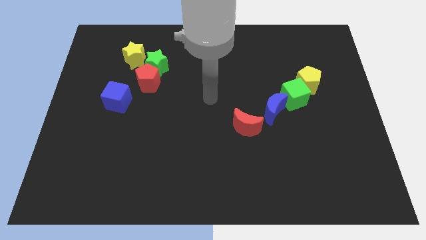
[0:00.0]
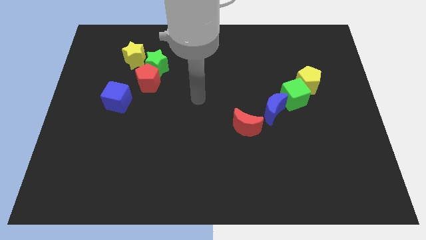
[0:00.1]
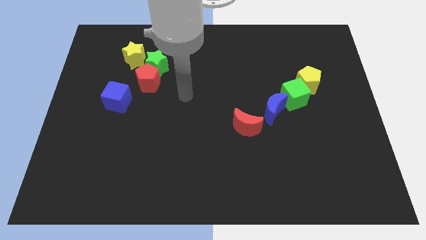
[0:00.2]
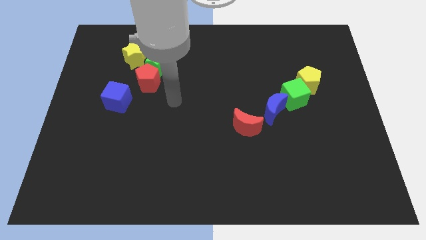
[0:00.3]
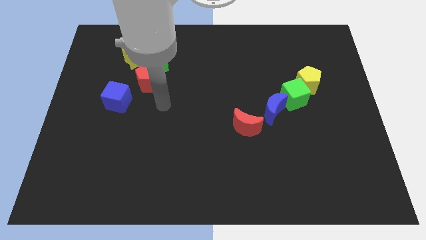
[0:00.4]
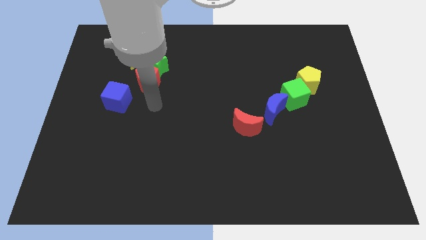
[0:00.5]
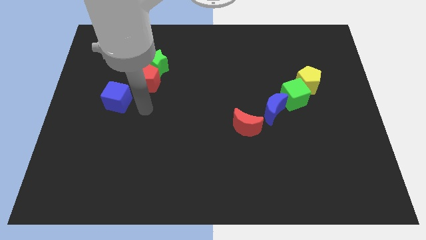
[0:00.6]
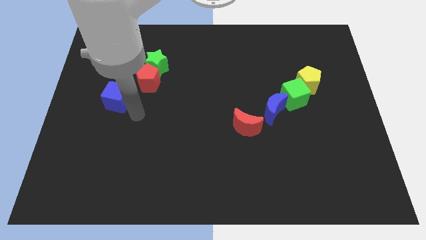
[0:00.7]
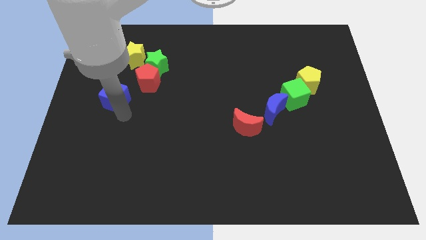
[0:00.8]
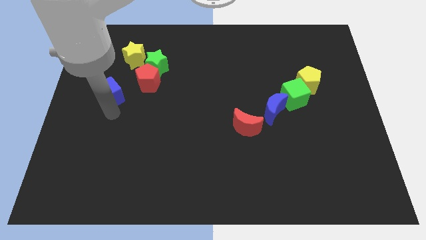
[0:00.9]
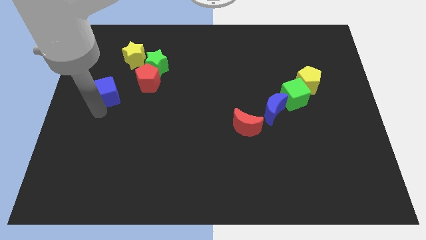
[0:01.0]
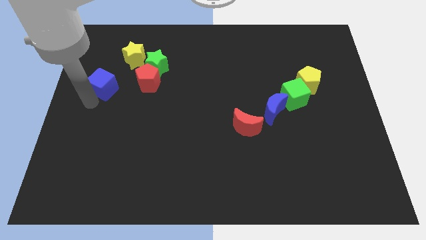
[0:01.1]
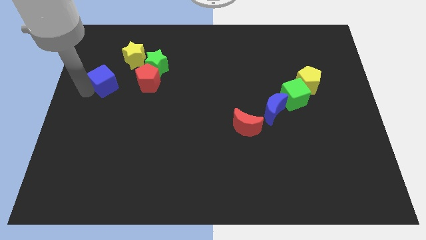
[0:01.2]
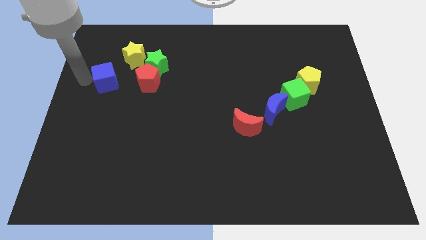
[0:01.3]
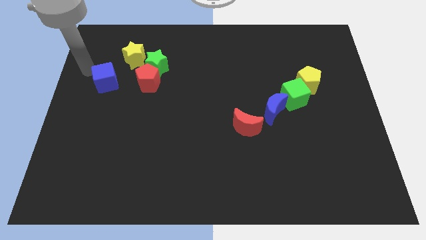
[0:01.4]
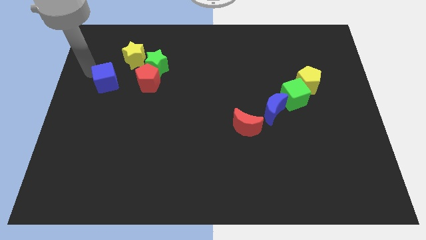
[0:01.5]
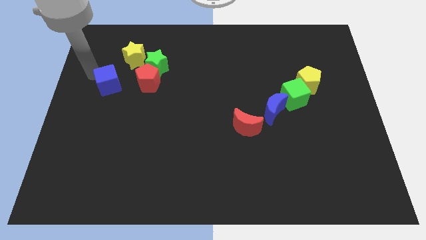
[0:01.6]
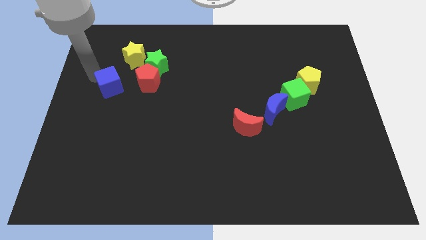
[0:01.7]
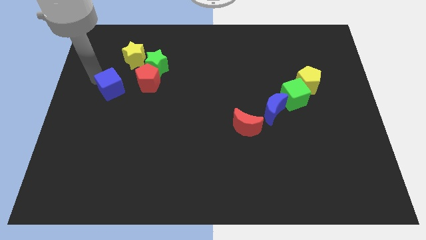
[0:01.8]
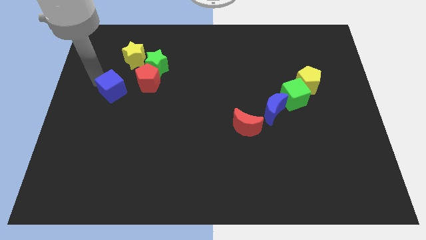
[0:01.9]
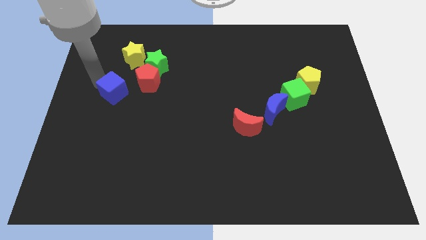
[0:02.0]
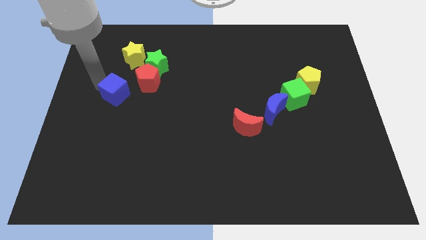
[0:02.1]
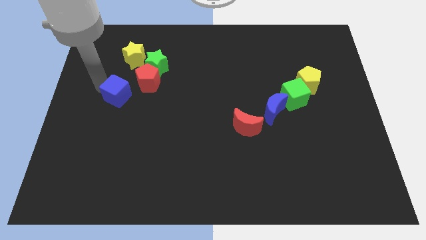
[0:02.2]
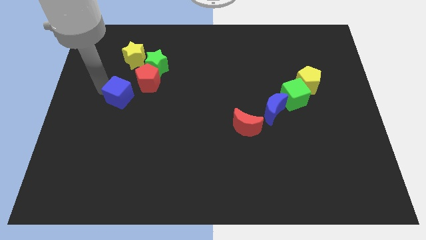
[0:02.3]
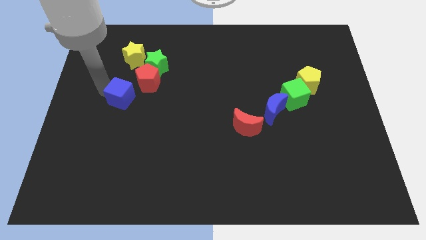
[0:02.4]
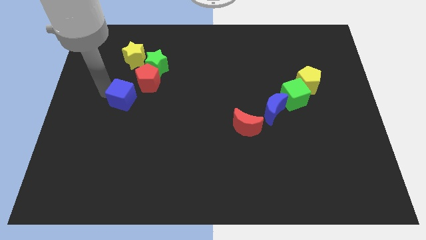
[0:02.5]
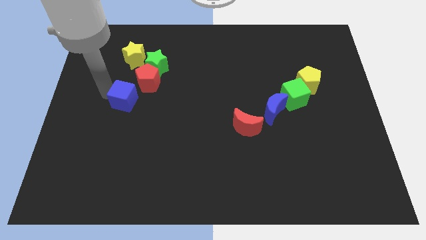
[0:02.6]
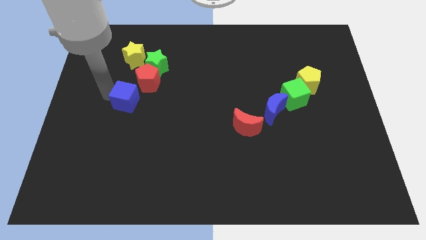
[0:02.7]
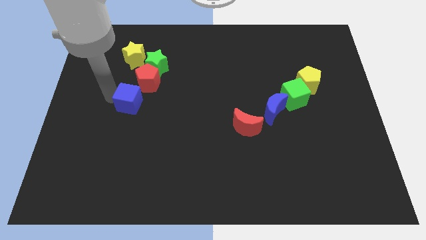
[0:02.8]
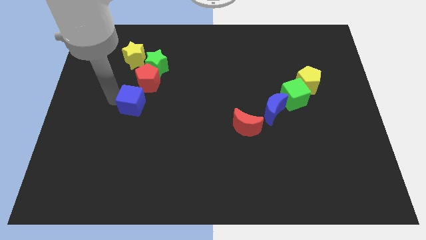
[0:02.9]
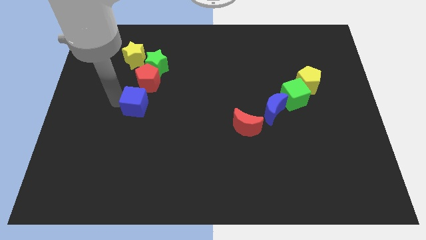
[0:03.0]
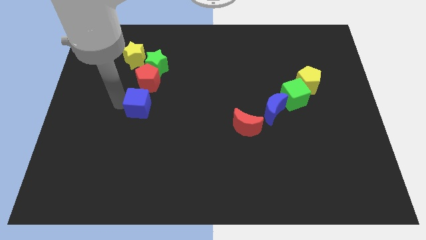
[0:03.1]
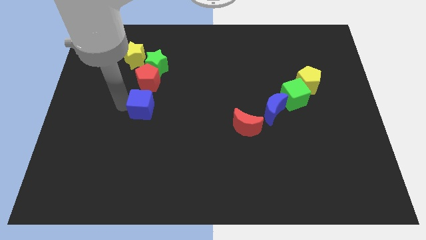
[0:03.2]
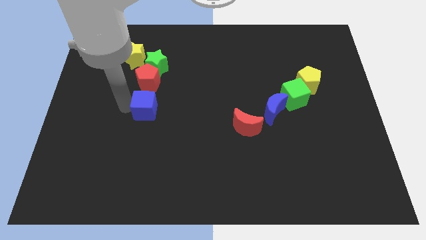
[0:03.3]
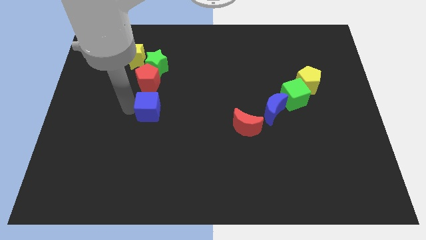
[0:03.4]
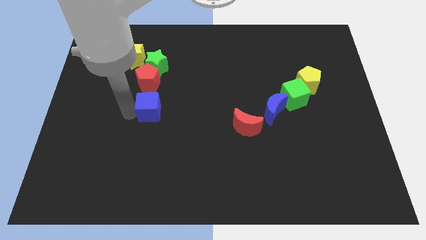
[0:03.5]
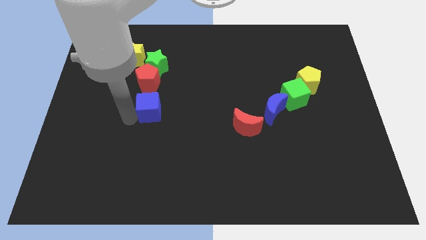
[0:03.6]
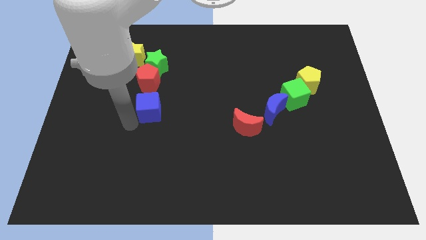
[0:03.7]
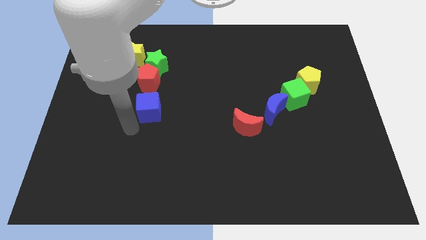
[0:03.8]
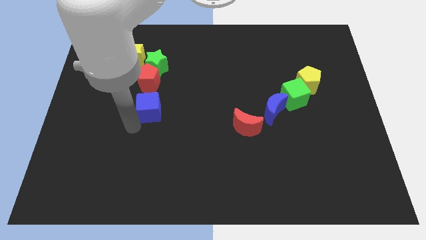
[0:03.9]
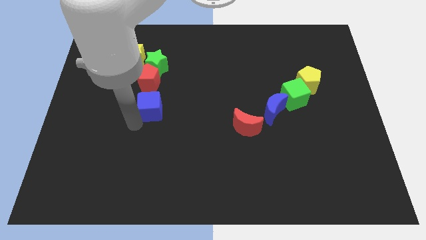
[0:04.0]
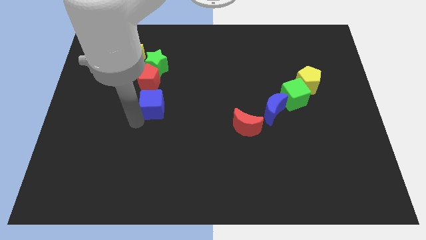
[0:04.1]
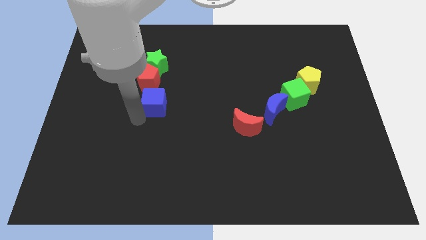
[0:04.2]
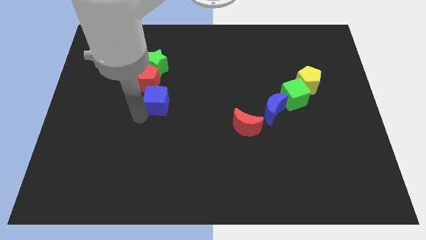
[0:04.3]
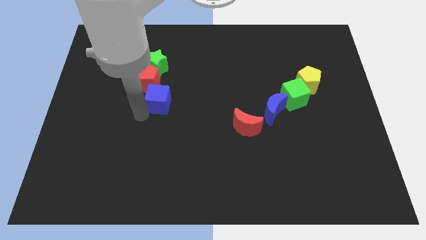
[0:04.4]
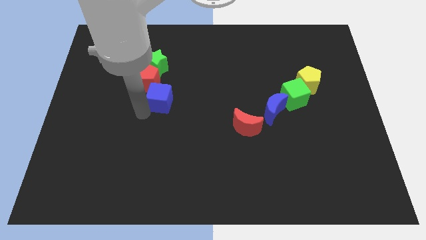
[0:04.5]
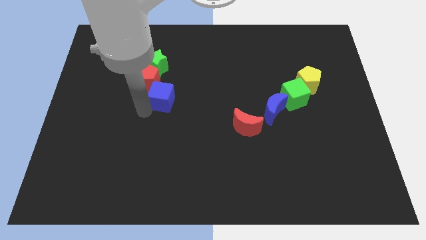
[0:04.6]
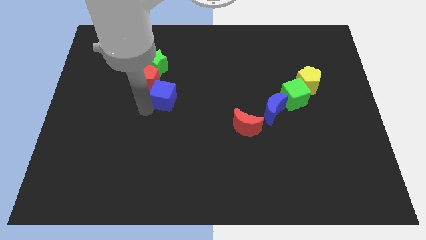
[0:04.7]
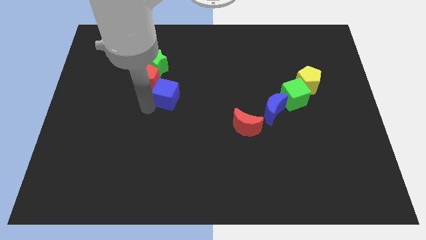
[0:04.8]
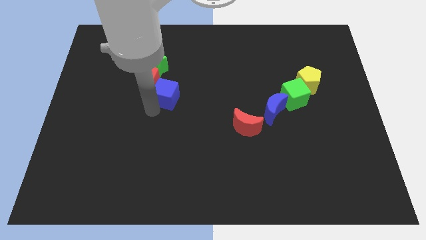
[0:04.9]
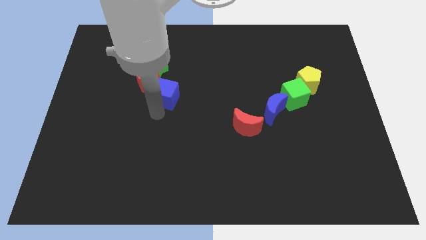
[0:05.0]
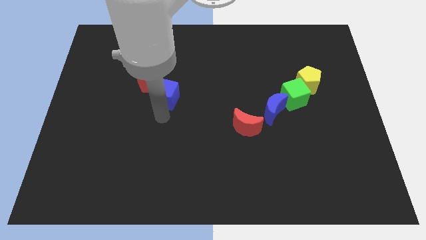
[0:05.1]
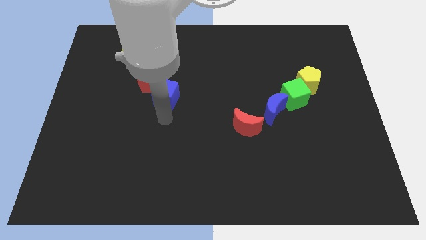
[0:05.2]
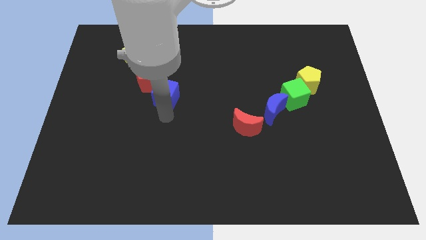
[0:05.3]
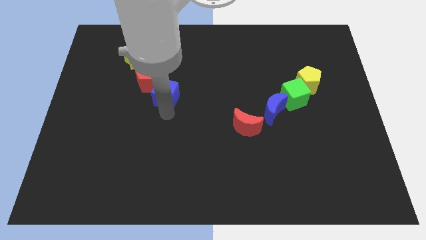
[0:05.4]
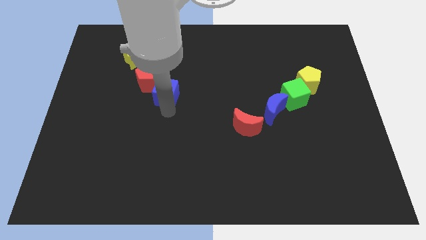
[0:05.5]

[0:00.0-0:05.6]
slide the blue cube upwards and right somewhat

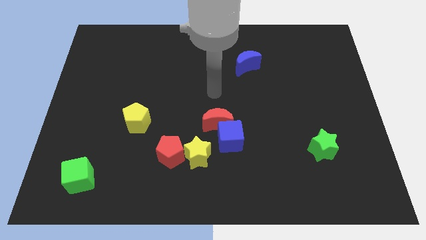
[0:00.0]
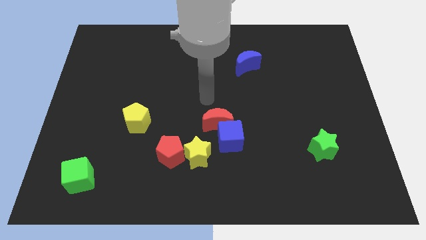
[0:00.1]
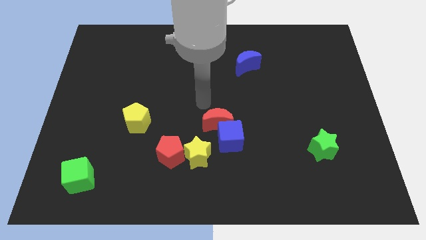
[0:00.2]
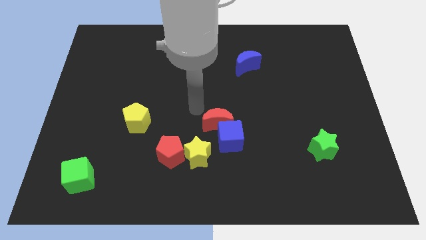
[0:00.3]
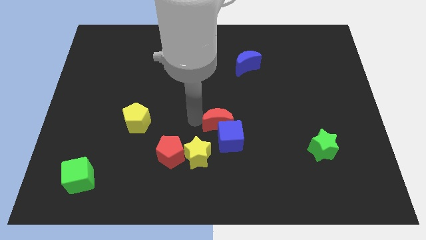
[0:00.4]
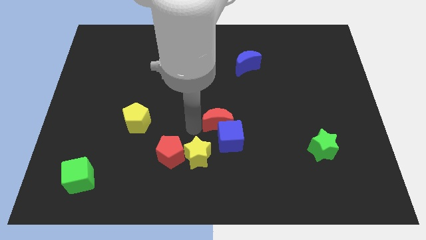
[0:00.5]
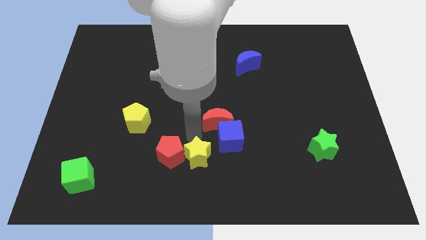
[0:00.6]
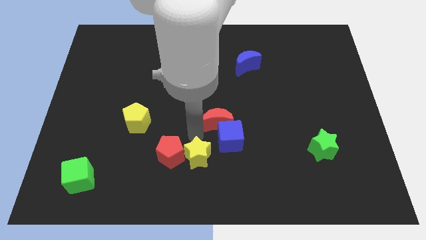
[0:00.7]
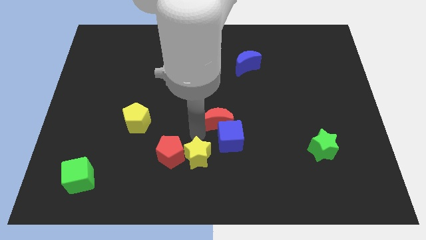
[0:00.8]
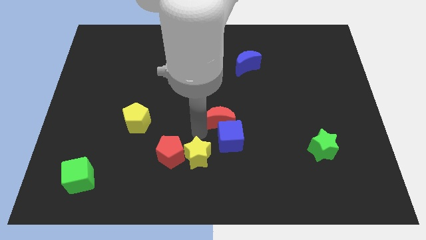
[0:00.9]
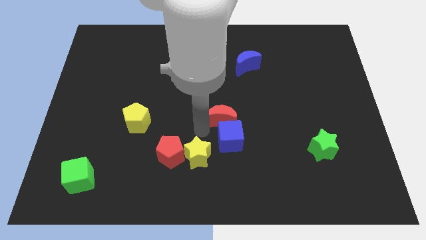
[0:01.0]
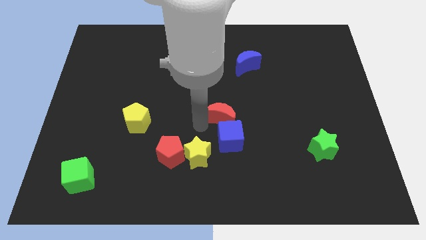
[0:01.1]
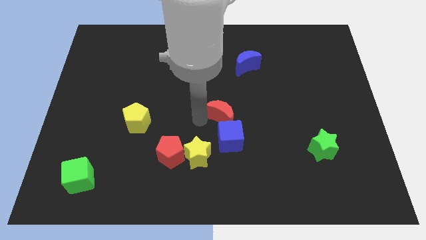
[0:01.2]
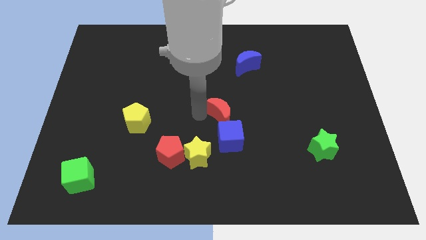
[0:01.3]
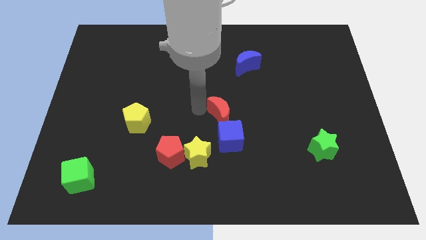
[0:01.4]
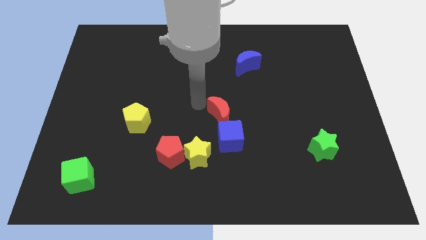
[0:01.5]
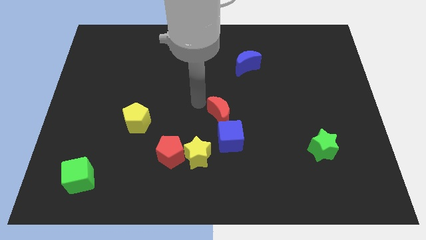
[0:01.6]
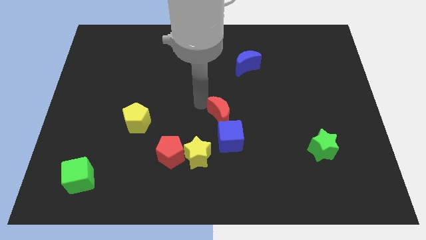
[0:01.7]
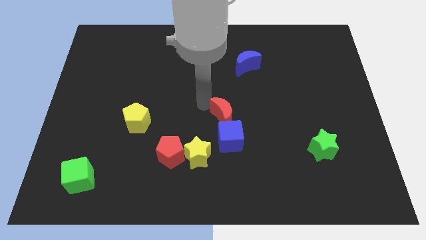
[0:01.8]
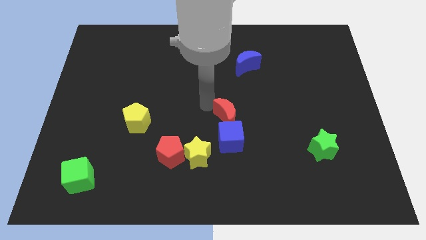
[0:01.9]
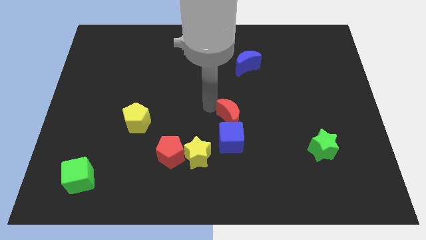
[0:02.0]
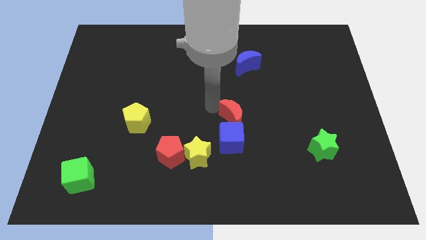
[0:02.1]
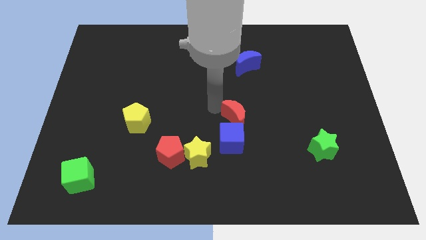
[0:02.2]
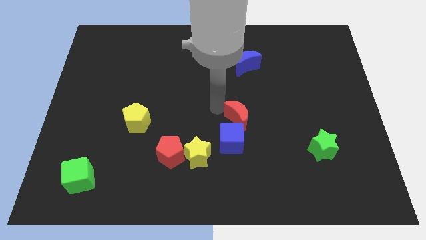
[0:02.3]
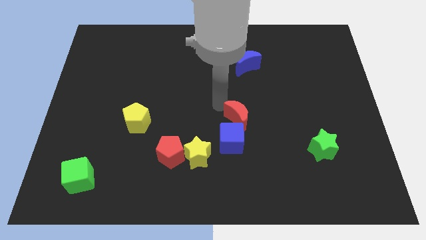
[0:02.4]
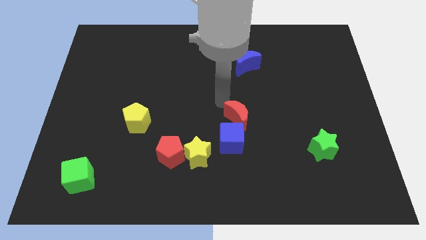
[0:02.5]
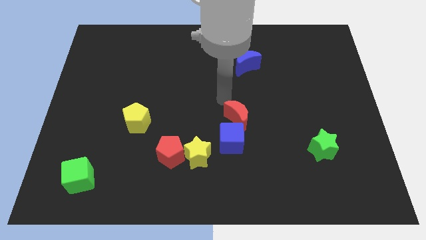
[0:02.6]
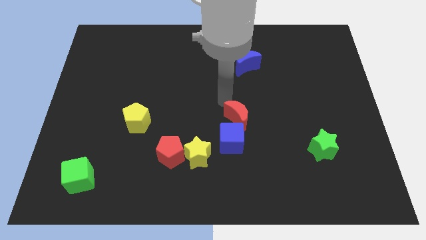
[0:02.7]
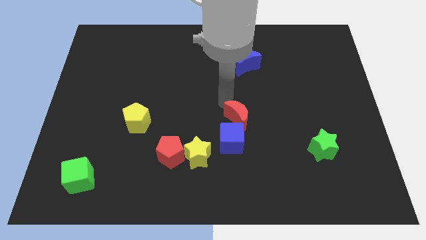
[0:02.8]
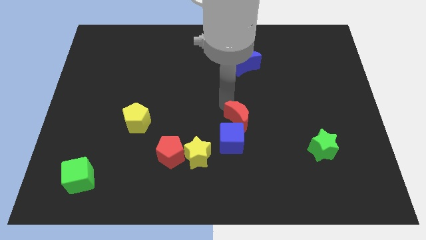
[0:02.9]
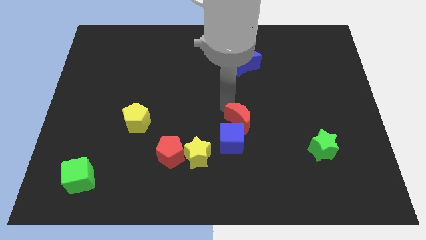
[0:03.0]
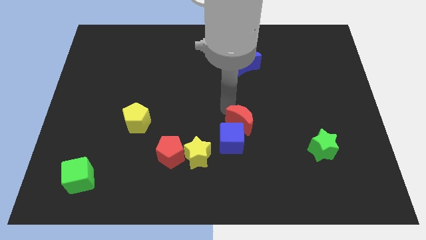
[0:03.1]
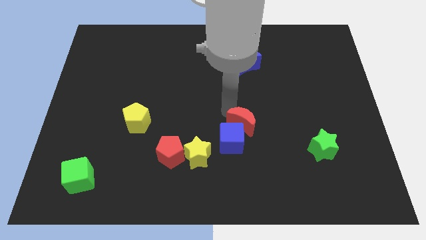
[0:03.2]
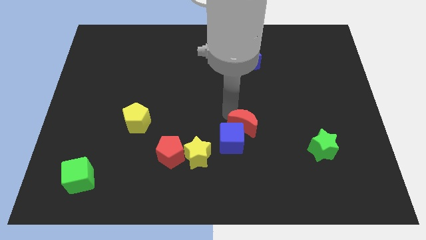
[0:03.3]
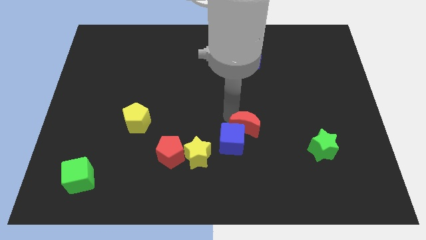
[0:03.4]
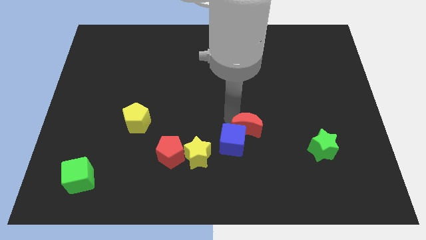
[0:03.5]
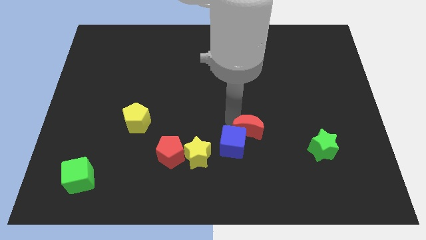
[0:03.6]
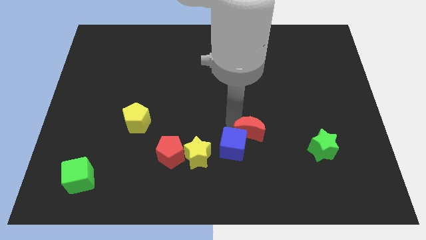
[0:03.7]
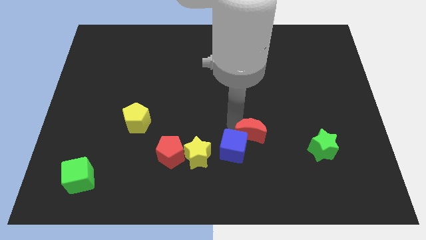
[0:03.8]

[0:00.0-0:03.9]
push the red moon a little diagonally downwards and to the right
